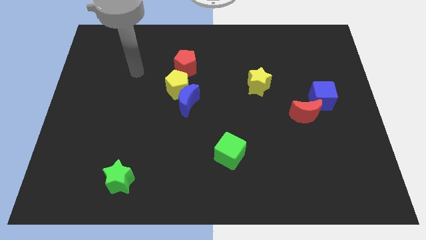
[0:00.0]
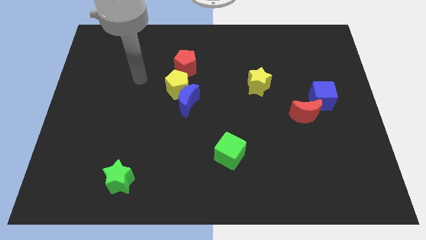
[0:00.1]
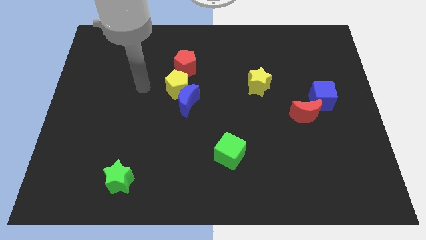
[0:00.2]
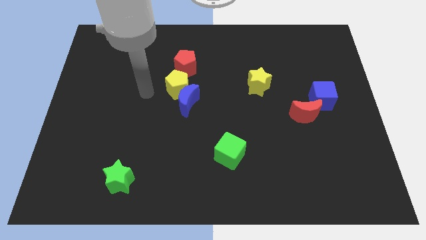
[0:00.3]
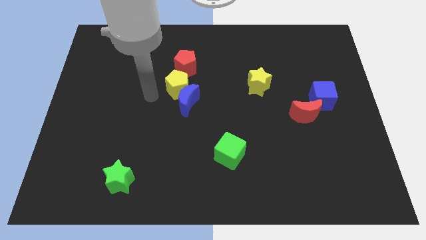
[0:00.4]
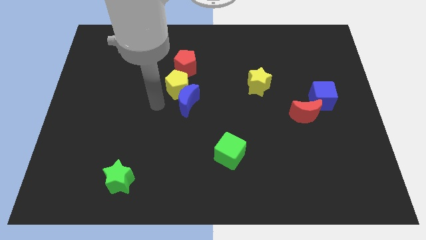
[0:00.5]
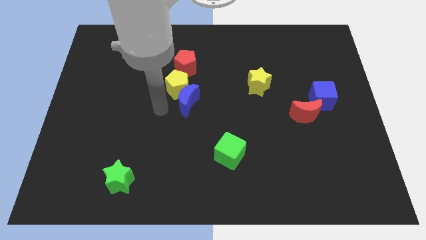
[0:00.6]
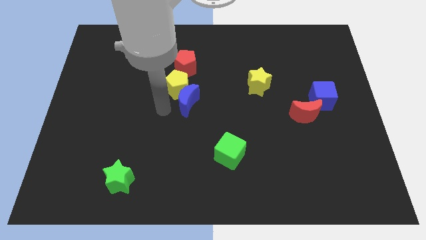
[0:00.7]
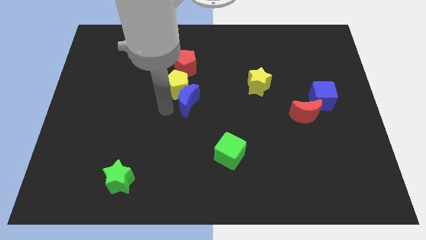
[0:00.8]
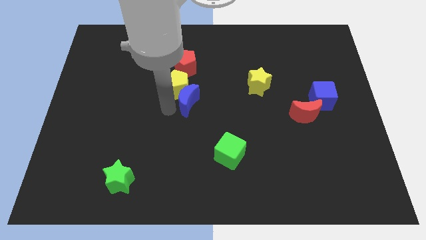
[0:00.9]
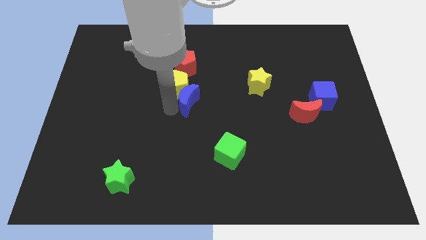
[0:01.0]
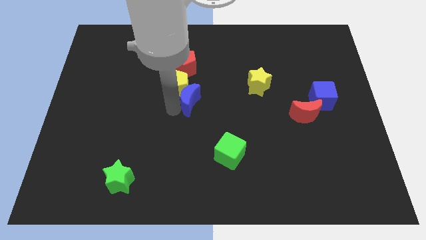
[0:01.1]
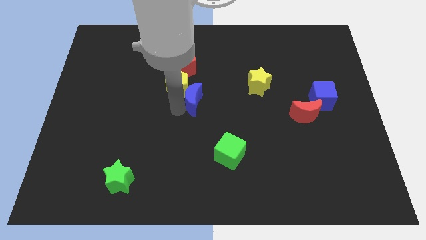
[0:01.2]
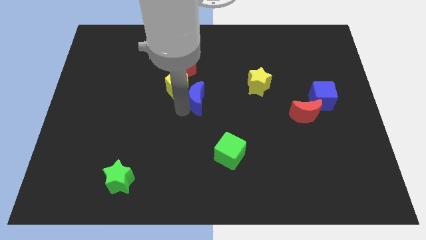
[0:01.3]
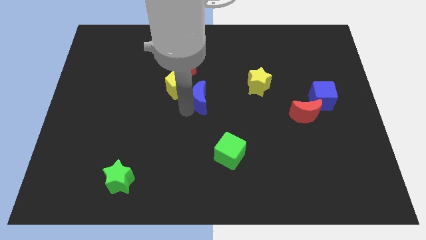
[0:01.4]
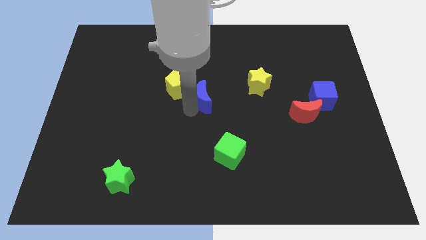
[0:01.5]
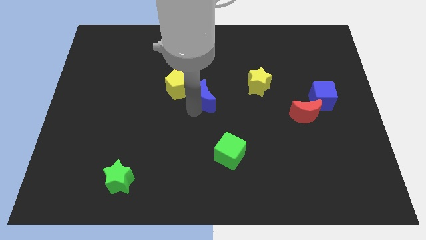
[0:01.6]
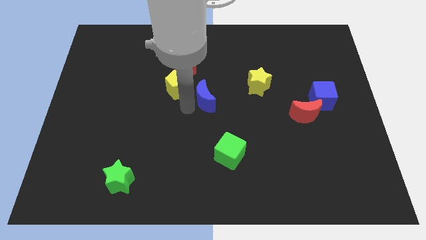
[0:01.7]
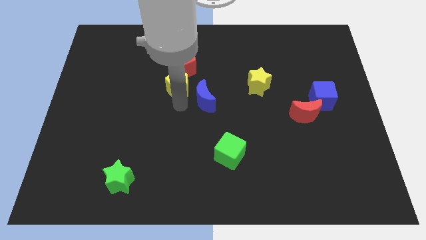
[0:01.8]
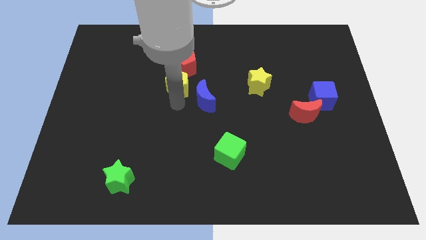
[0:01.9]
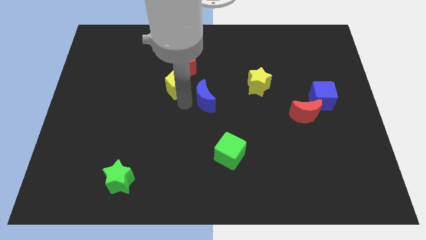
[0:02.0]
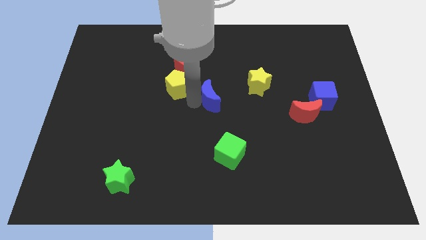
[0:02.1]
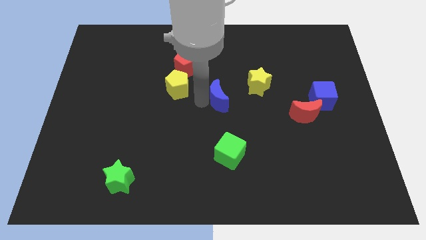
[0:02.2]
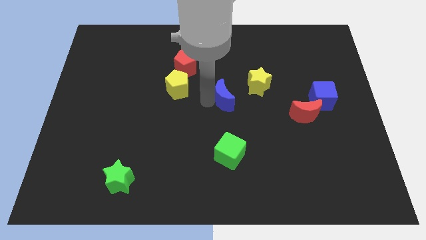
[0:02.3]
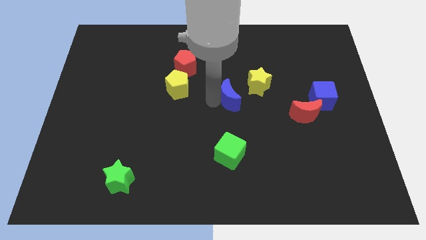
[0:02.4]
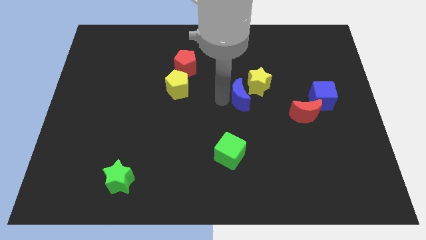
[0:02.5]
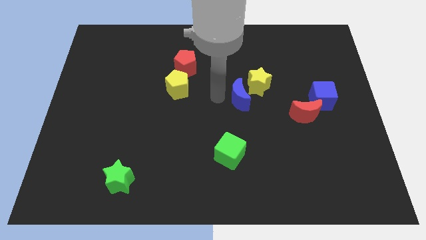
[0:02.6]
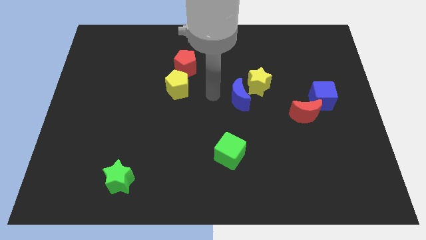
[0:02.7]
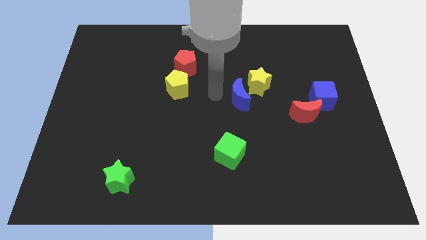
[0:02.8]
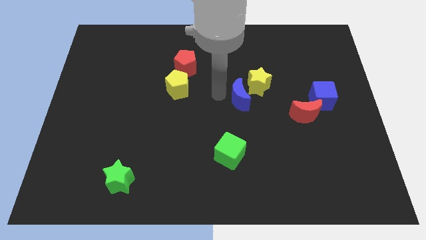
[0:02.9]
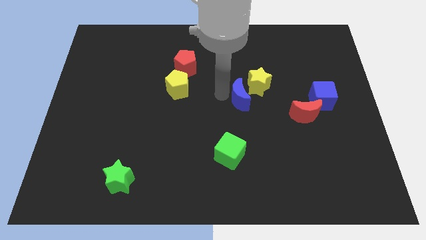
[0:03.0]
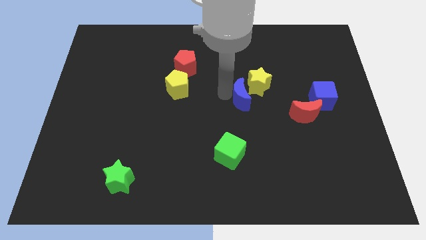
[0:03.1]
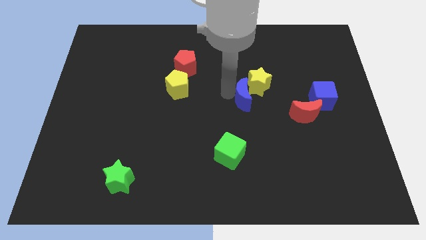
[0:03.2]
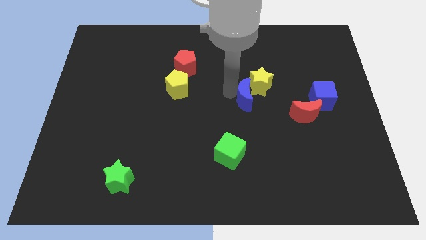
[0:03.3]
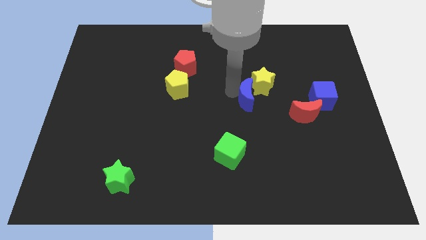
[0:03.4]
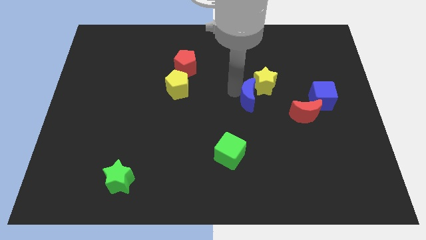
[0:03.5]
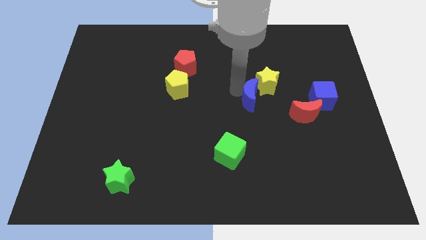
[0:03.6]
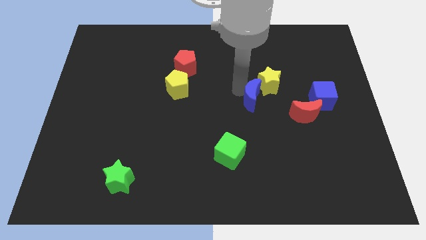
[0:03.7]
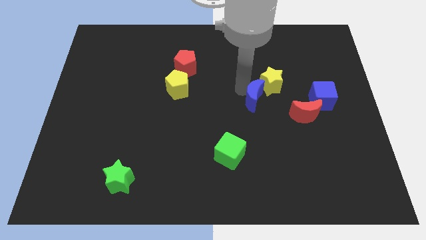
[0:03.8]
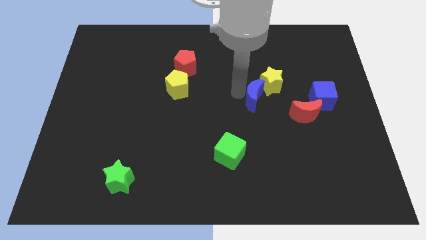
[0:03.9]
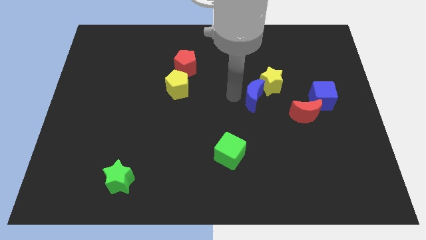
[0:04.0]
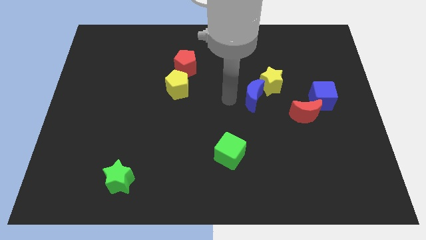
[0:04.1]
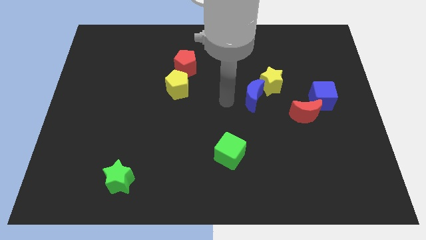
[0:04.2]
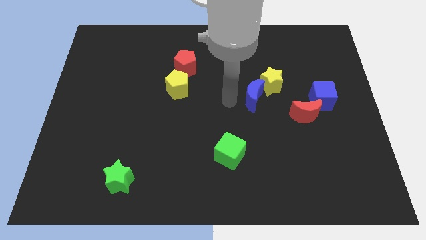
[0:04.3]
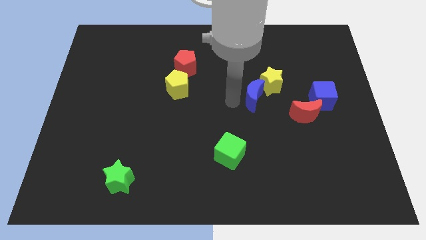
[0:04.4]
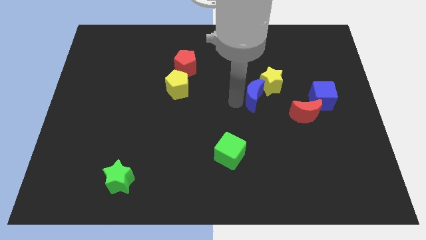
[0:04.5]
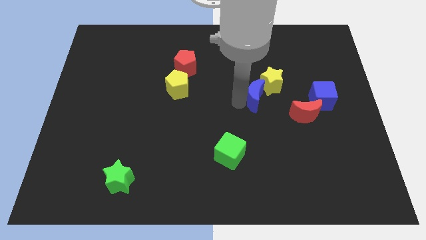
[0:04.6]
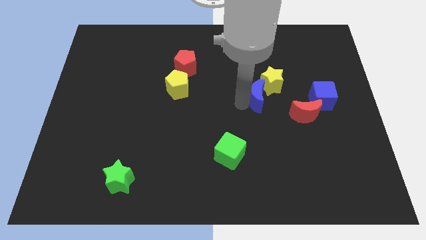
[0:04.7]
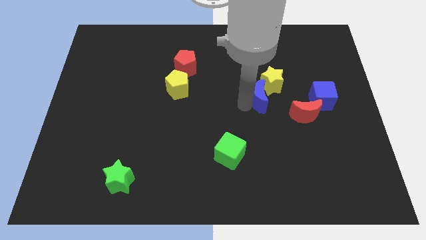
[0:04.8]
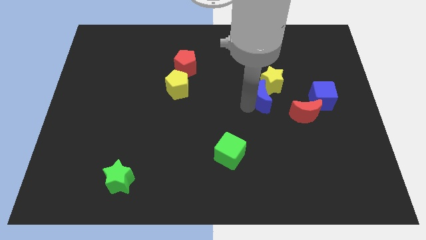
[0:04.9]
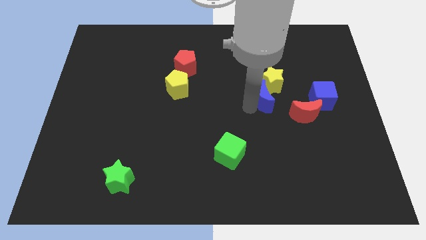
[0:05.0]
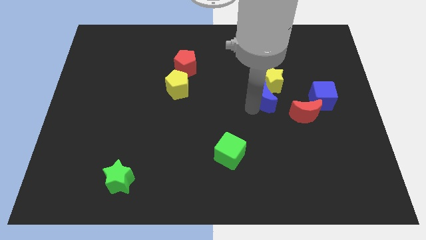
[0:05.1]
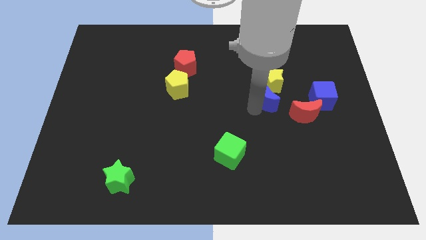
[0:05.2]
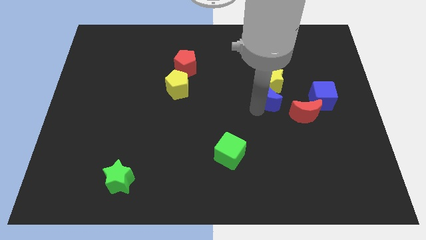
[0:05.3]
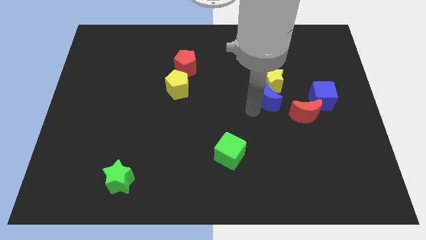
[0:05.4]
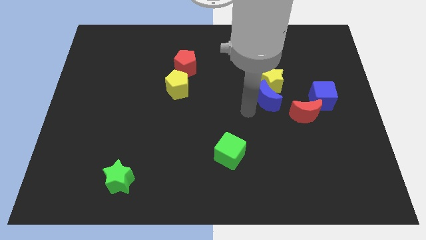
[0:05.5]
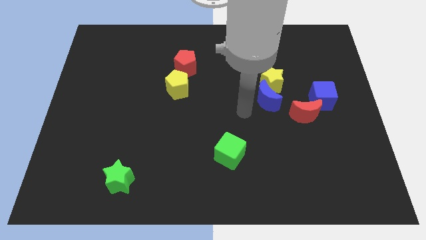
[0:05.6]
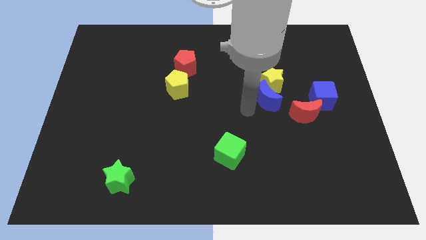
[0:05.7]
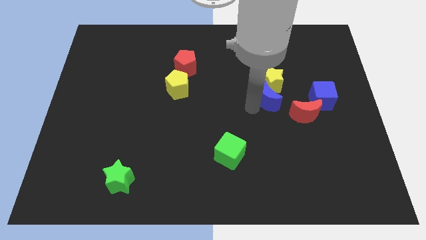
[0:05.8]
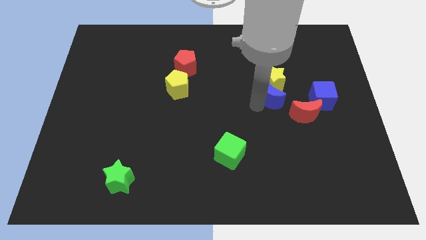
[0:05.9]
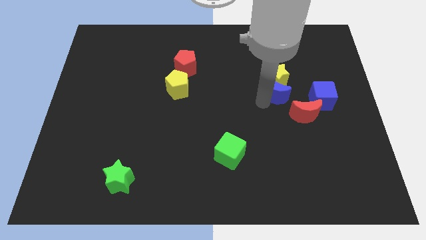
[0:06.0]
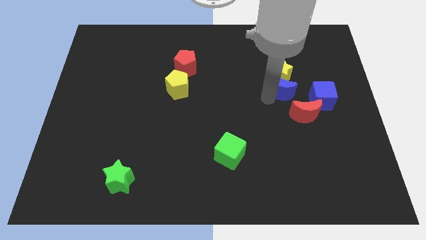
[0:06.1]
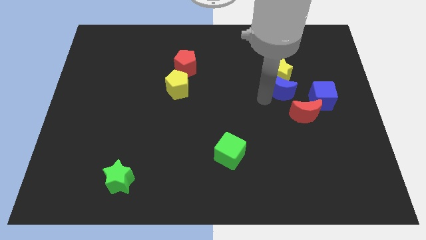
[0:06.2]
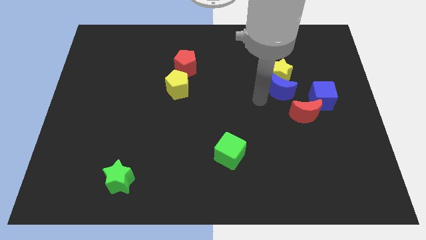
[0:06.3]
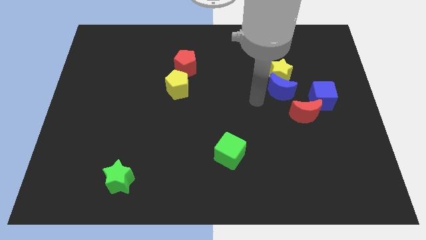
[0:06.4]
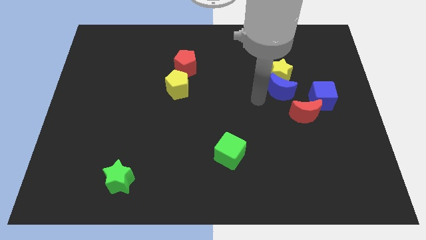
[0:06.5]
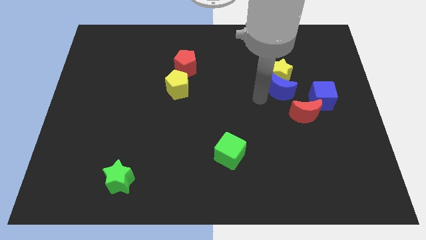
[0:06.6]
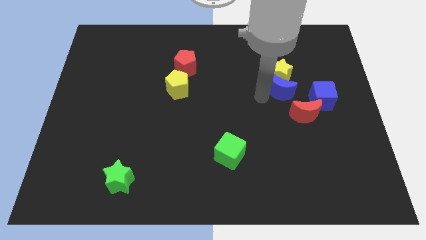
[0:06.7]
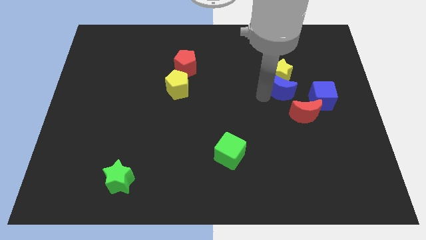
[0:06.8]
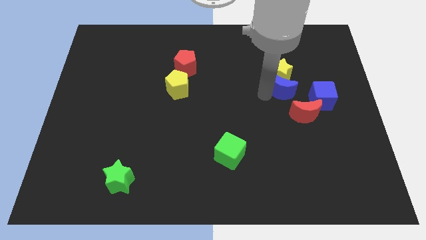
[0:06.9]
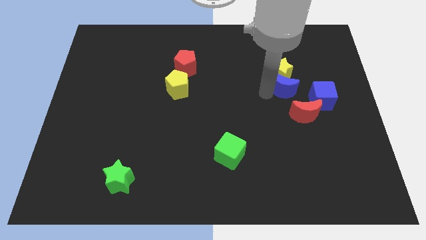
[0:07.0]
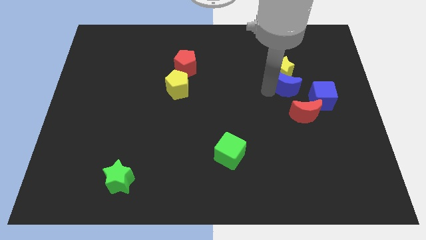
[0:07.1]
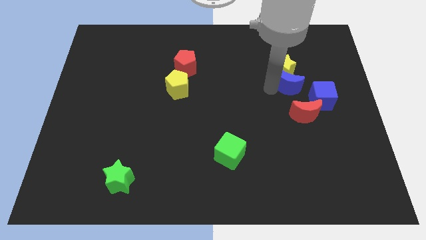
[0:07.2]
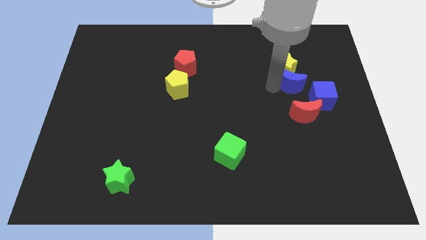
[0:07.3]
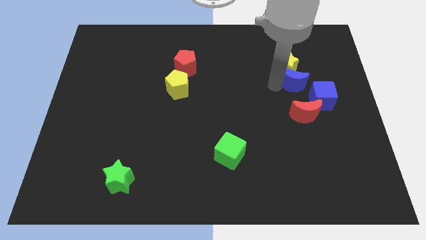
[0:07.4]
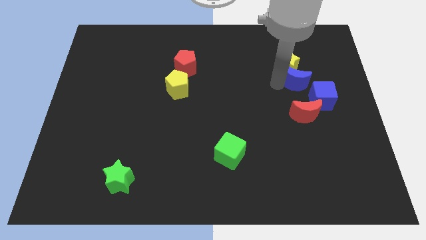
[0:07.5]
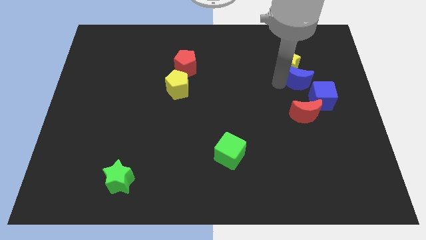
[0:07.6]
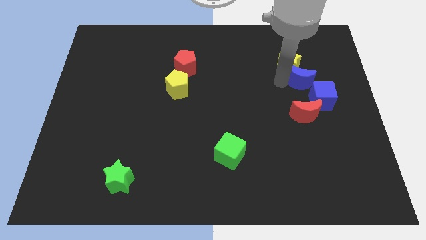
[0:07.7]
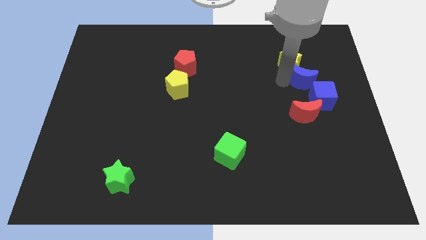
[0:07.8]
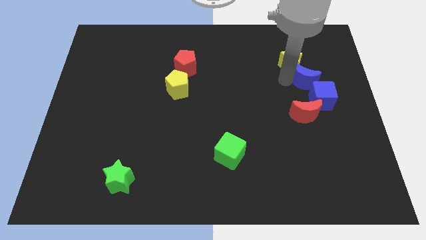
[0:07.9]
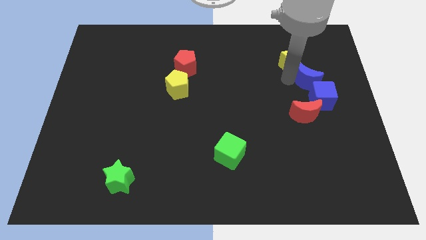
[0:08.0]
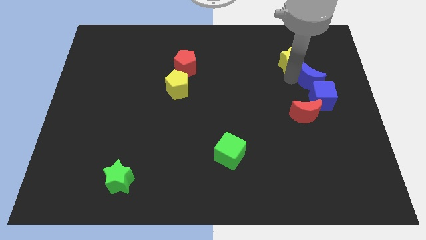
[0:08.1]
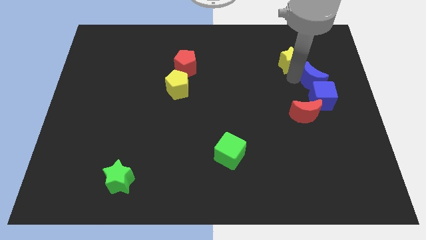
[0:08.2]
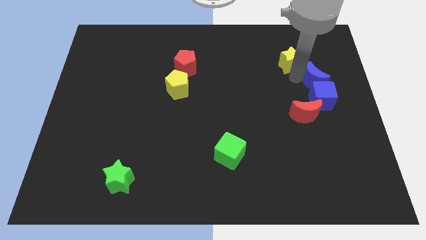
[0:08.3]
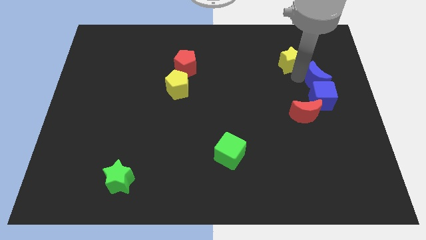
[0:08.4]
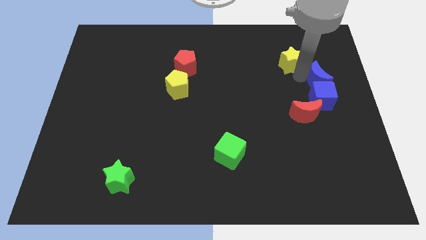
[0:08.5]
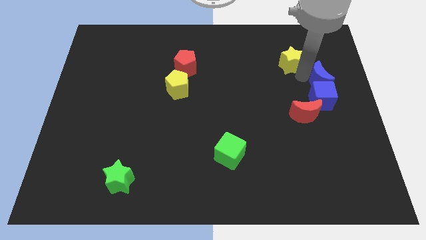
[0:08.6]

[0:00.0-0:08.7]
move the blue moon to the right side of the board
